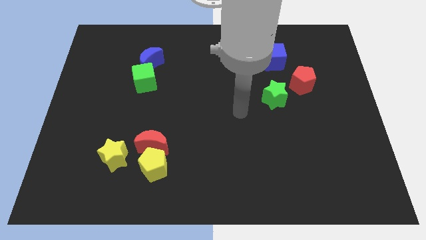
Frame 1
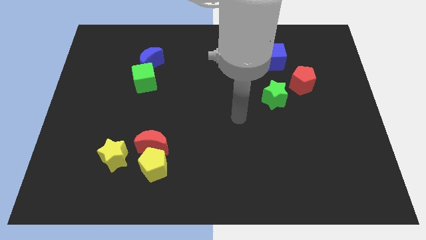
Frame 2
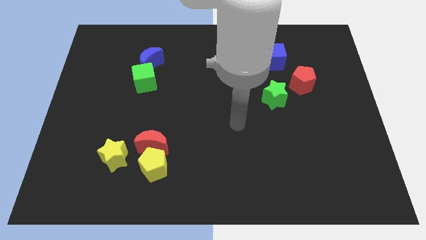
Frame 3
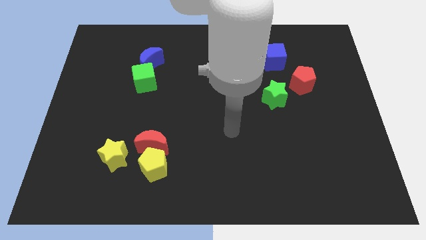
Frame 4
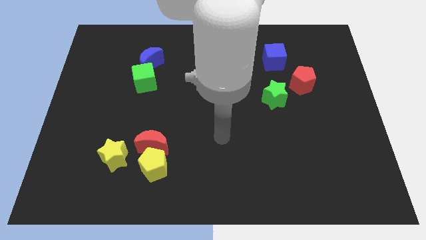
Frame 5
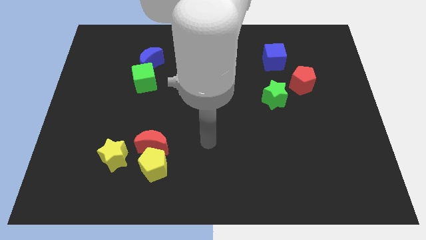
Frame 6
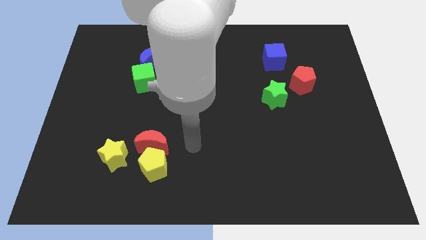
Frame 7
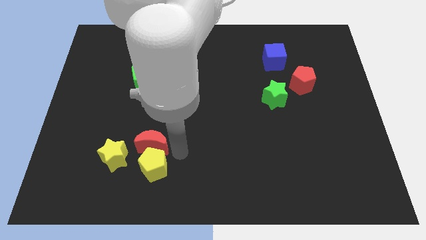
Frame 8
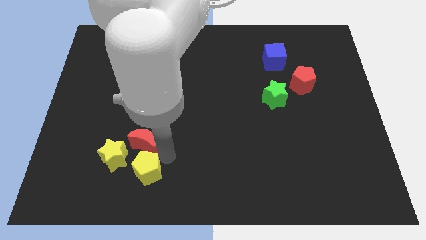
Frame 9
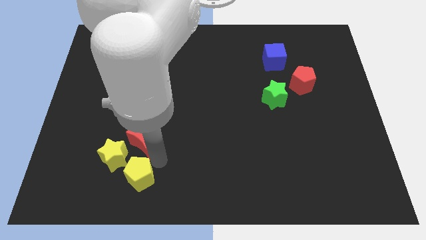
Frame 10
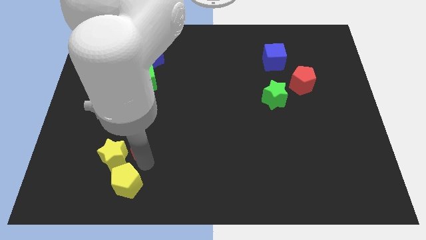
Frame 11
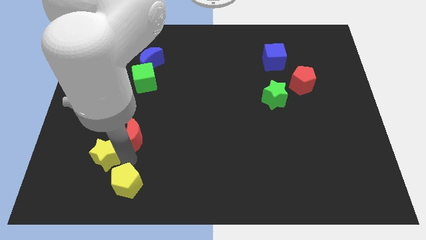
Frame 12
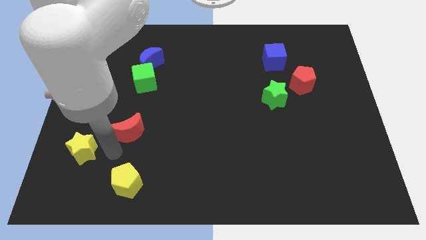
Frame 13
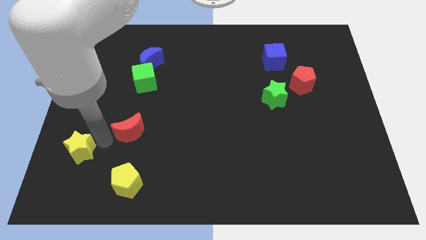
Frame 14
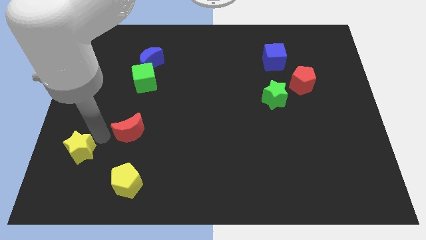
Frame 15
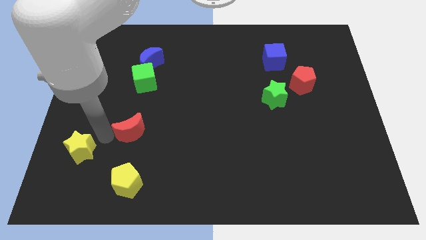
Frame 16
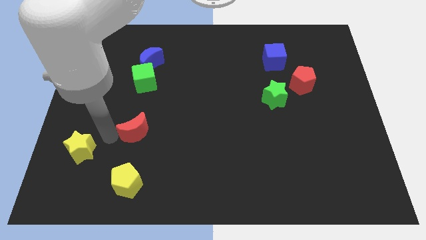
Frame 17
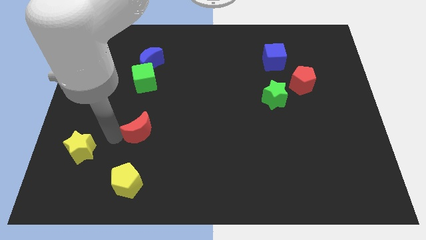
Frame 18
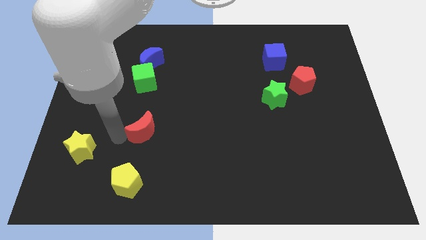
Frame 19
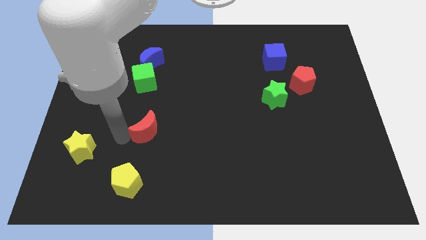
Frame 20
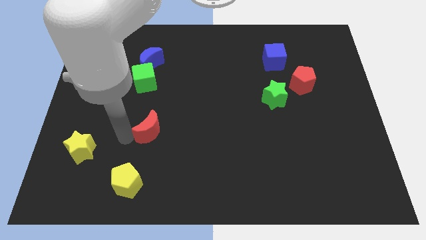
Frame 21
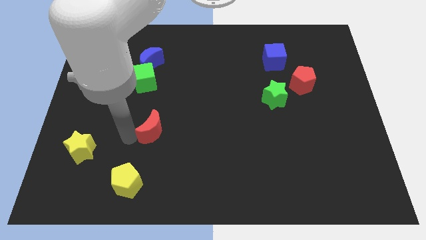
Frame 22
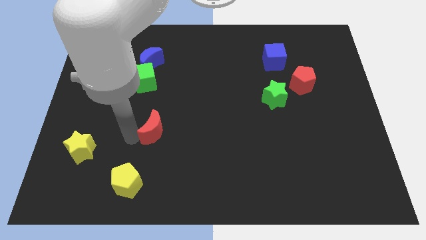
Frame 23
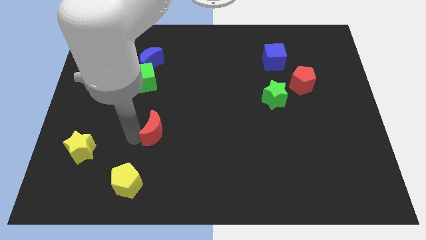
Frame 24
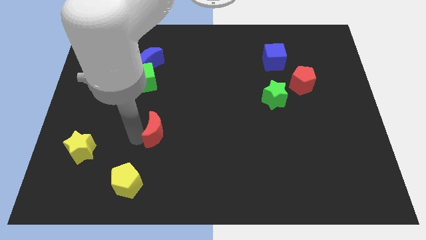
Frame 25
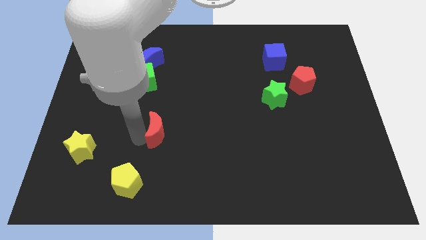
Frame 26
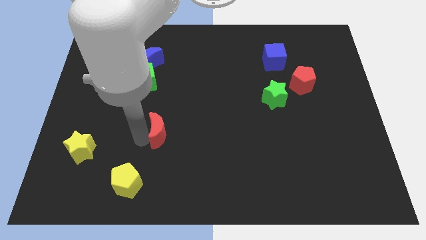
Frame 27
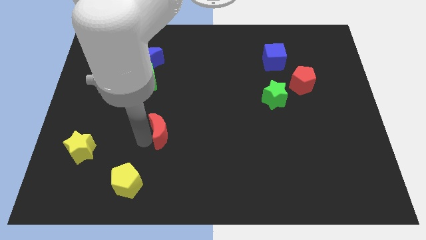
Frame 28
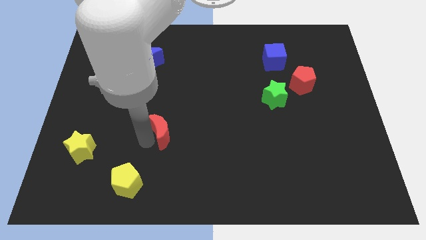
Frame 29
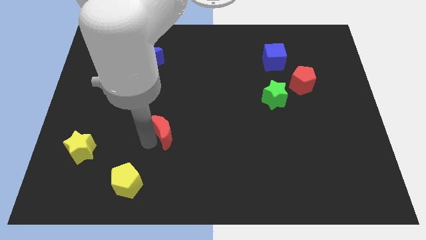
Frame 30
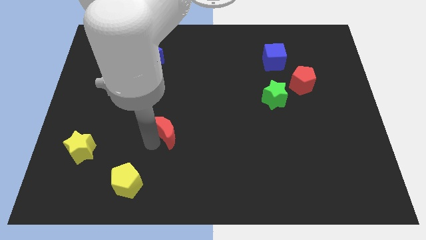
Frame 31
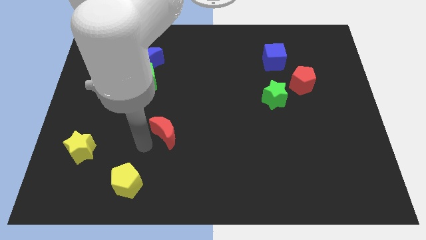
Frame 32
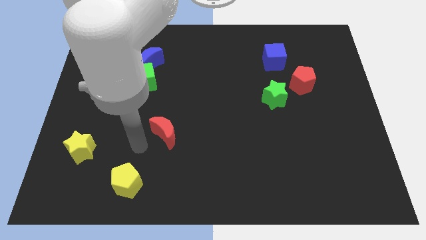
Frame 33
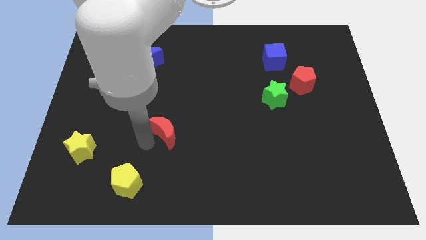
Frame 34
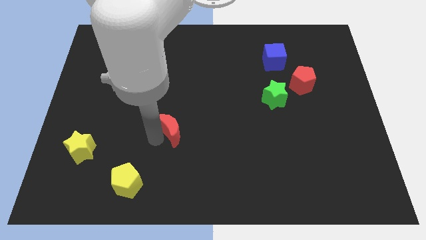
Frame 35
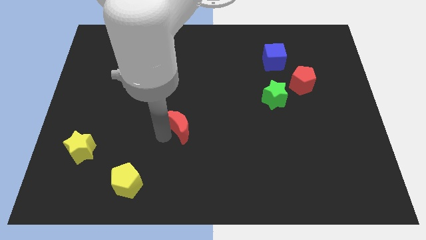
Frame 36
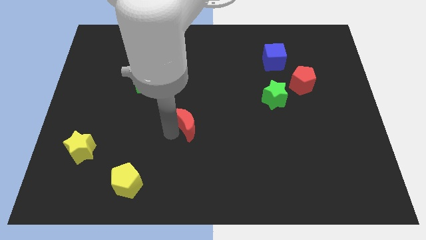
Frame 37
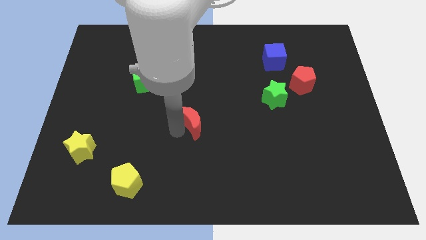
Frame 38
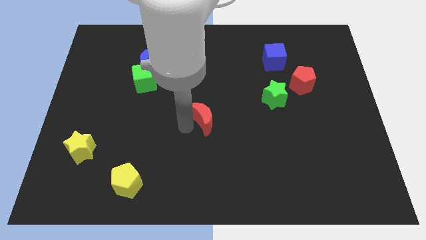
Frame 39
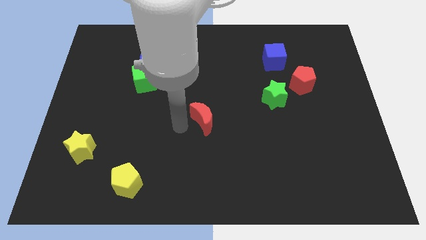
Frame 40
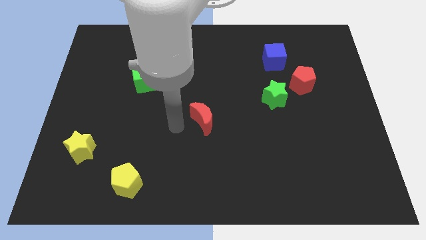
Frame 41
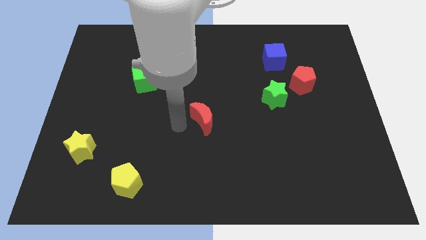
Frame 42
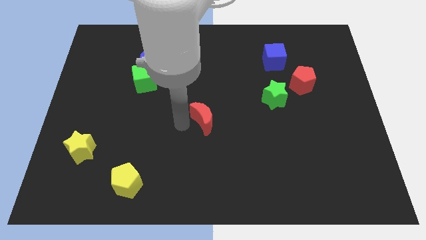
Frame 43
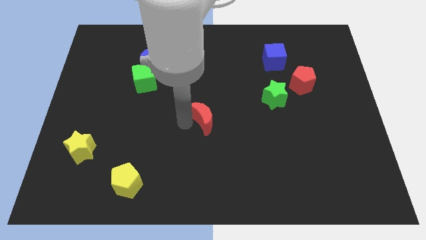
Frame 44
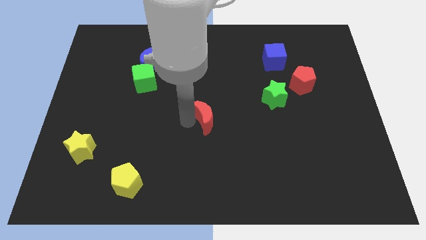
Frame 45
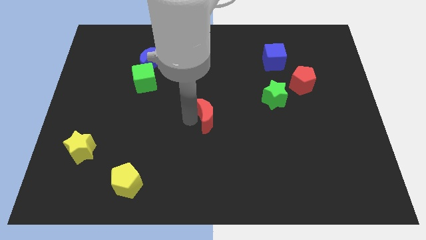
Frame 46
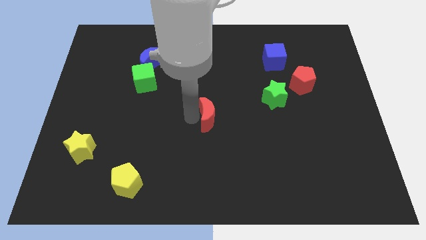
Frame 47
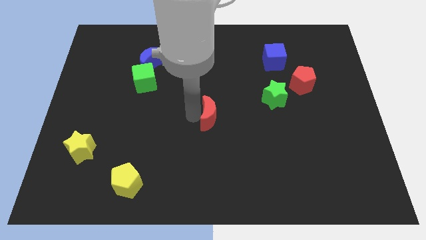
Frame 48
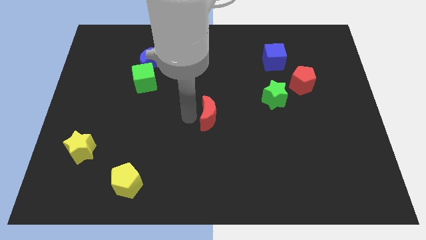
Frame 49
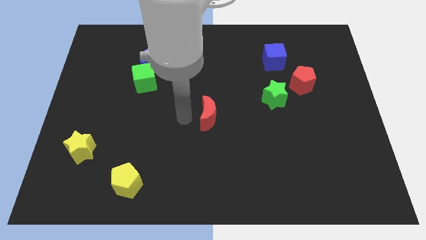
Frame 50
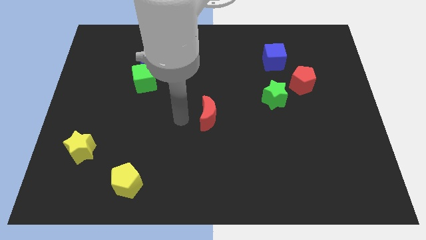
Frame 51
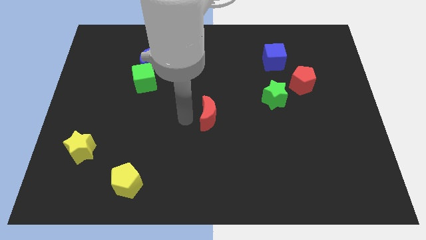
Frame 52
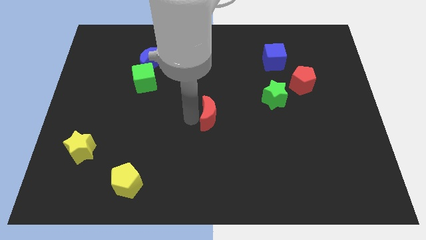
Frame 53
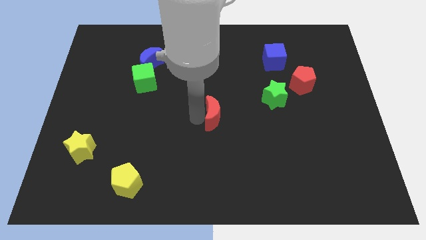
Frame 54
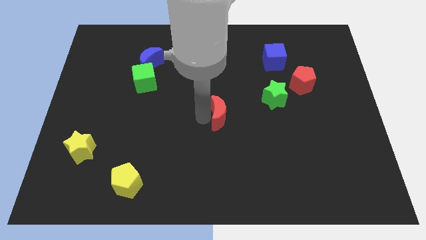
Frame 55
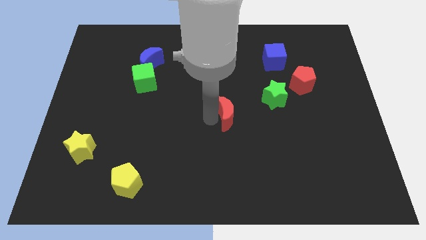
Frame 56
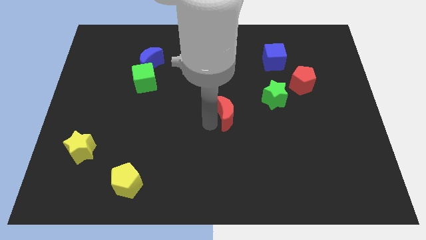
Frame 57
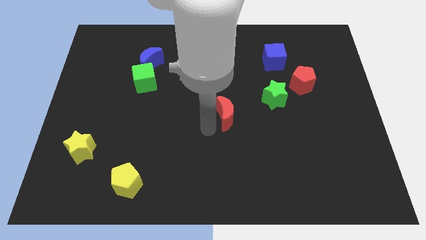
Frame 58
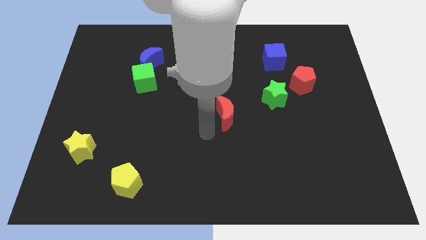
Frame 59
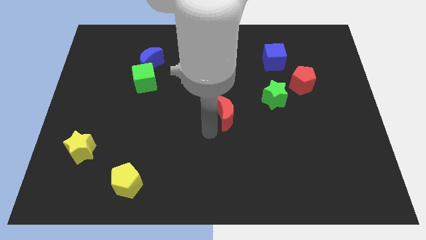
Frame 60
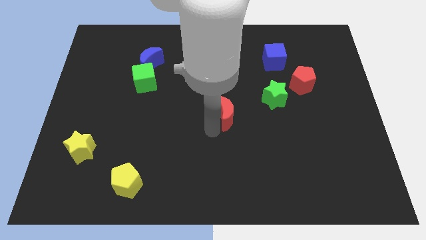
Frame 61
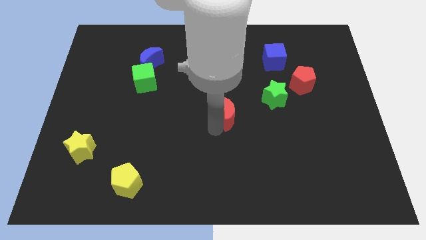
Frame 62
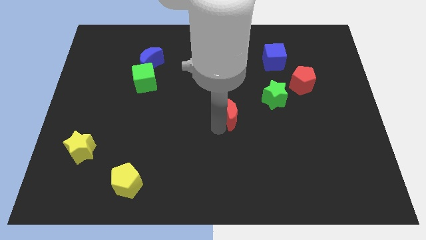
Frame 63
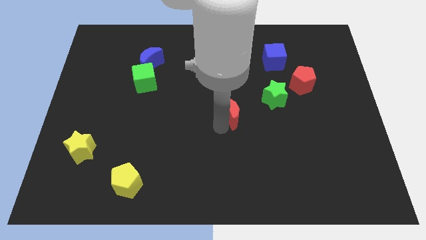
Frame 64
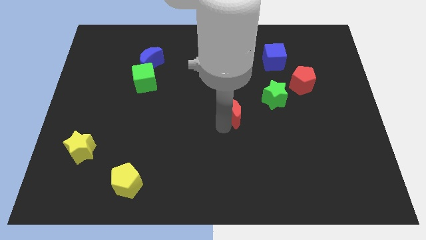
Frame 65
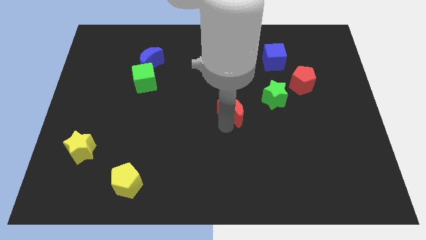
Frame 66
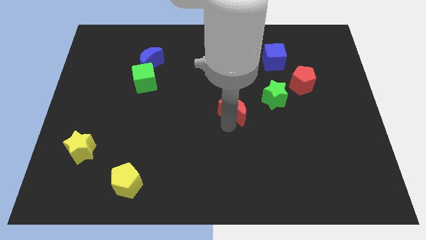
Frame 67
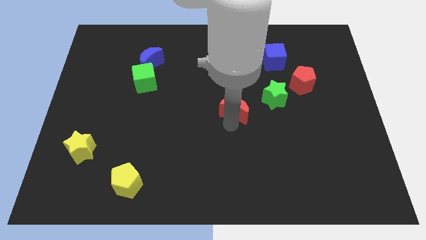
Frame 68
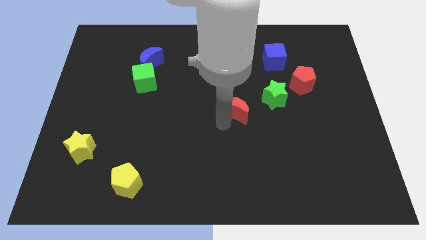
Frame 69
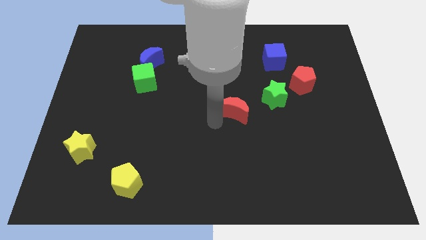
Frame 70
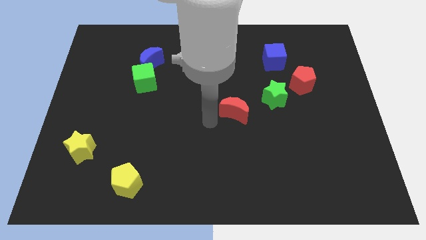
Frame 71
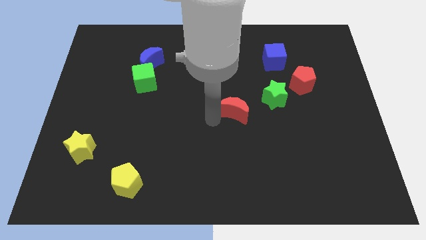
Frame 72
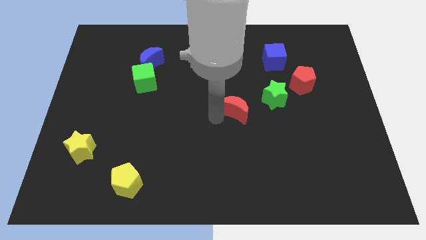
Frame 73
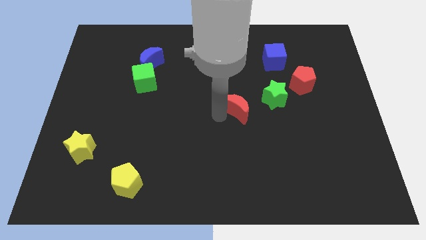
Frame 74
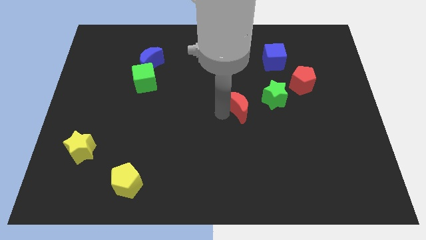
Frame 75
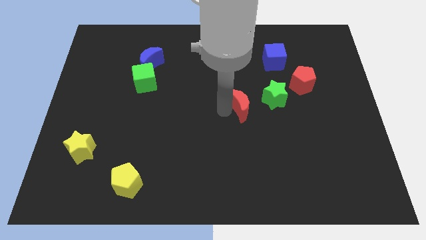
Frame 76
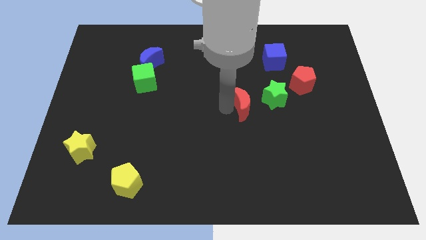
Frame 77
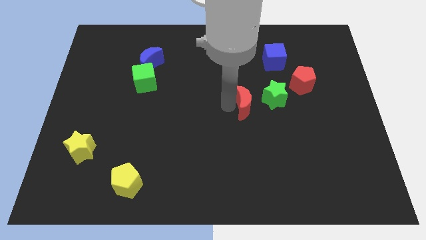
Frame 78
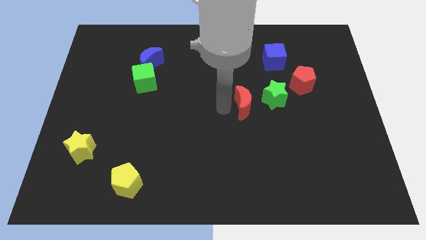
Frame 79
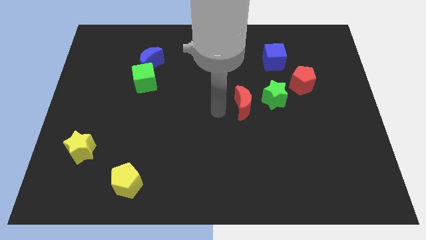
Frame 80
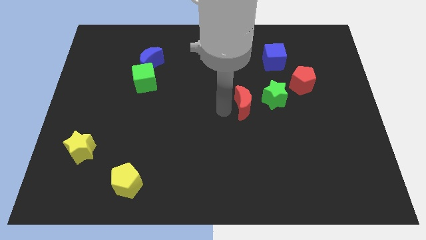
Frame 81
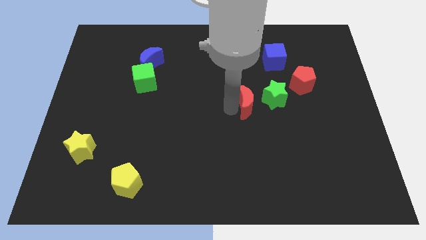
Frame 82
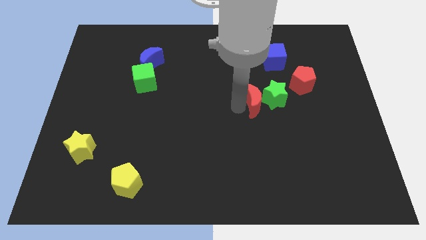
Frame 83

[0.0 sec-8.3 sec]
push the red moon next to the green star
